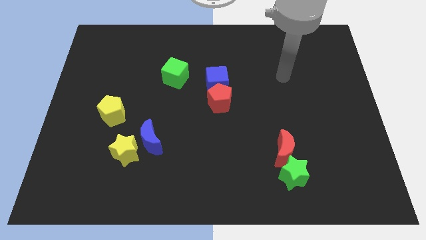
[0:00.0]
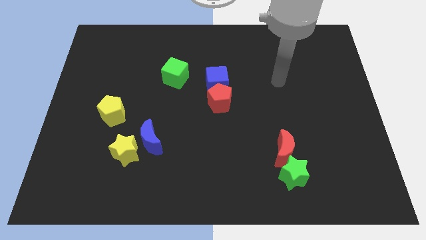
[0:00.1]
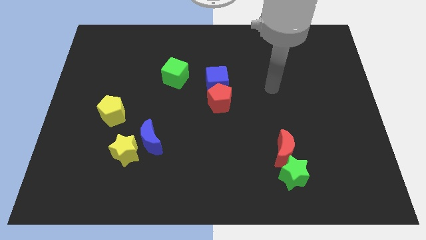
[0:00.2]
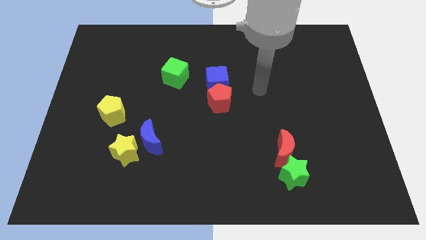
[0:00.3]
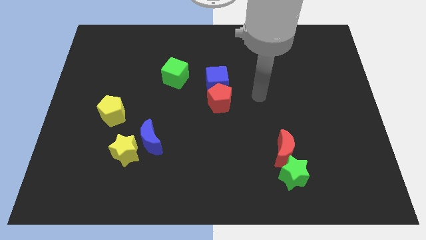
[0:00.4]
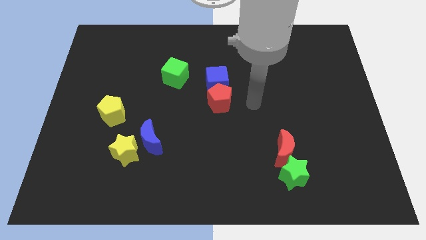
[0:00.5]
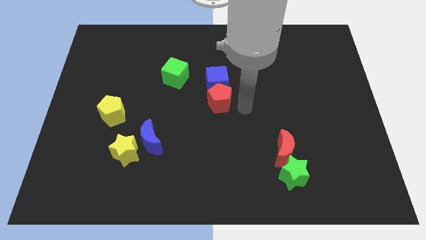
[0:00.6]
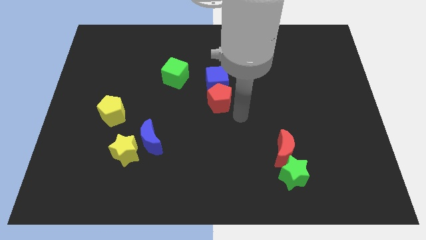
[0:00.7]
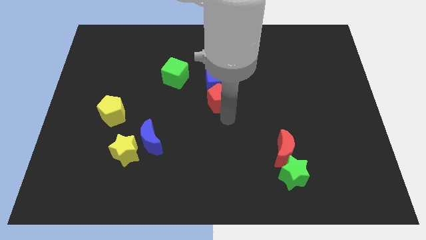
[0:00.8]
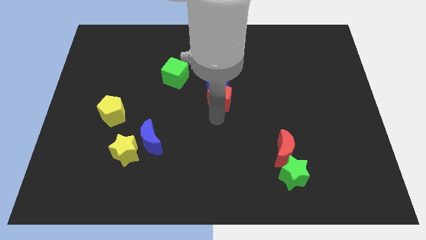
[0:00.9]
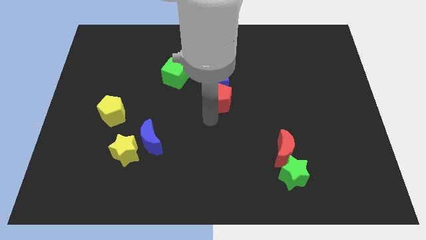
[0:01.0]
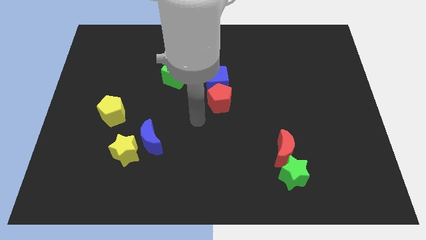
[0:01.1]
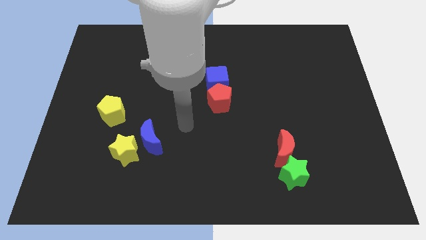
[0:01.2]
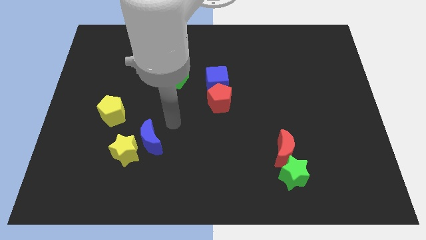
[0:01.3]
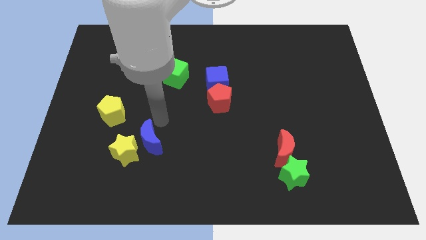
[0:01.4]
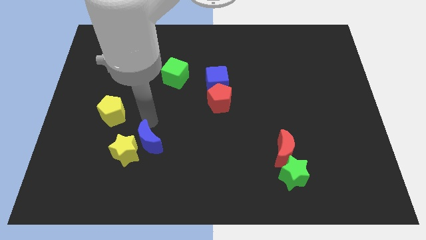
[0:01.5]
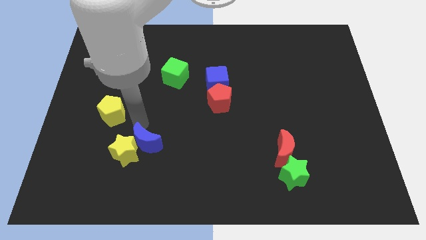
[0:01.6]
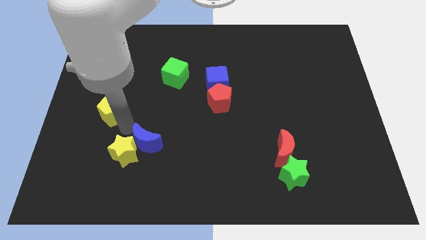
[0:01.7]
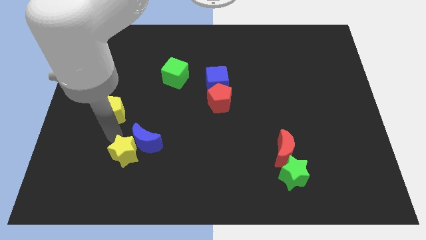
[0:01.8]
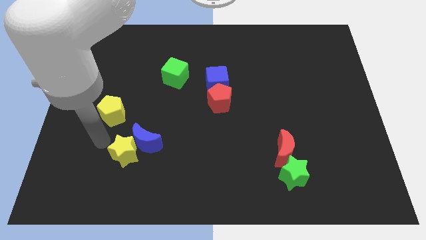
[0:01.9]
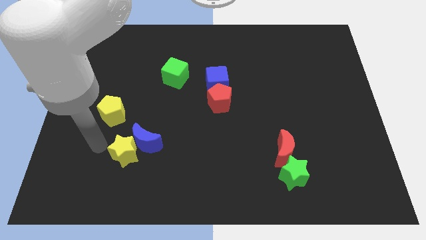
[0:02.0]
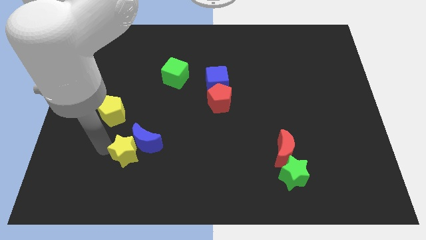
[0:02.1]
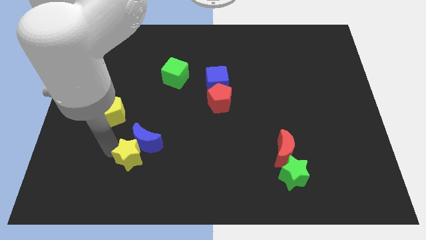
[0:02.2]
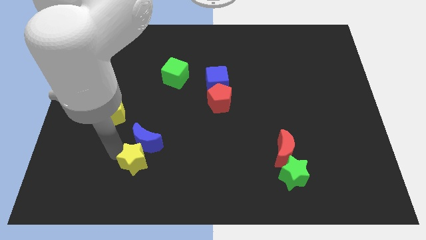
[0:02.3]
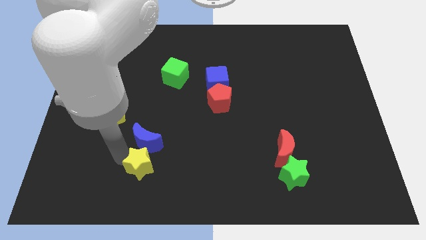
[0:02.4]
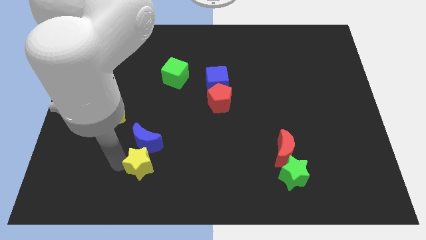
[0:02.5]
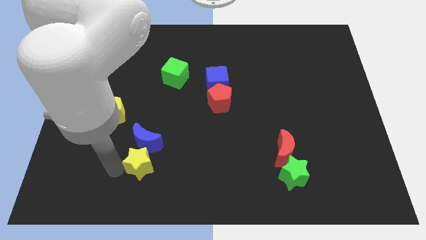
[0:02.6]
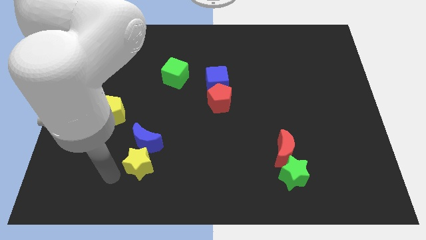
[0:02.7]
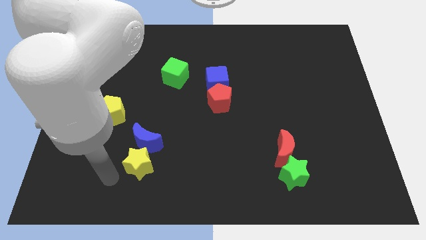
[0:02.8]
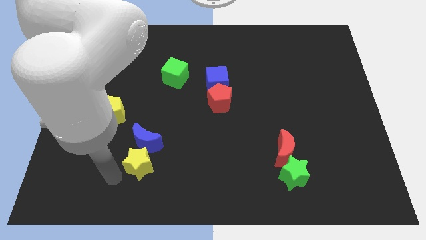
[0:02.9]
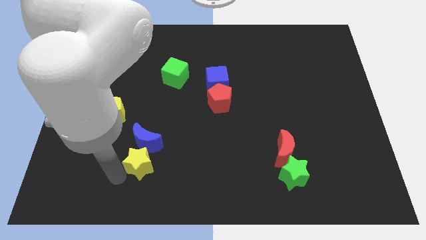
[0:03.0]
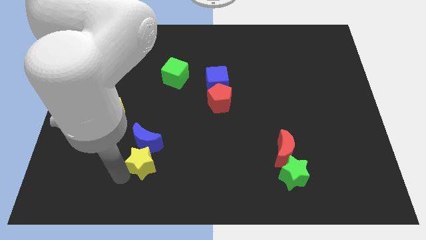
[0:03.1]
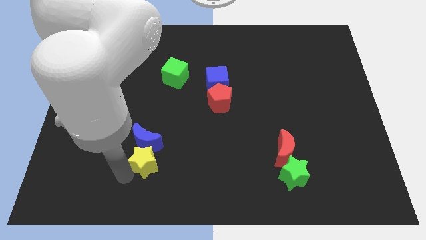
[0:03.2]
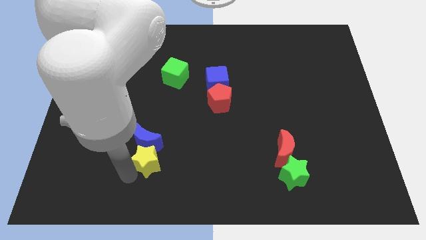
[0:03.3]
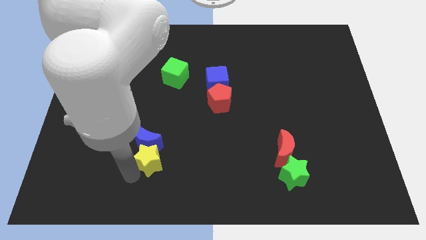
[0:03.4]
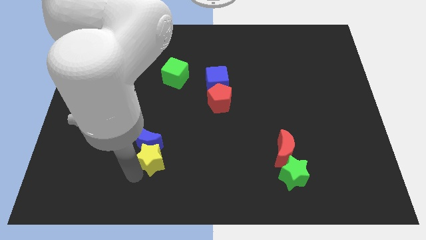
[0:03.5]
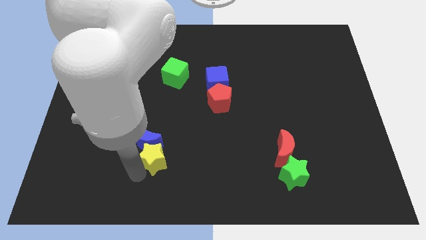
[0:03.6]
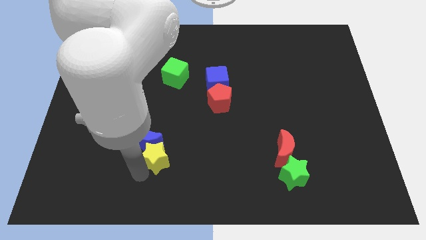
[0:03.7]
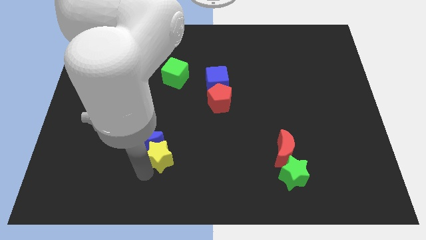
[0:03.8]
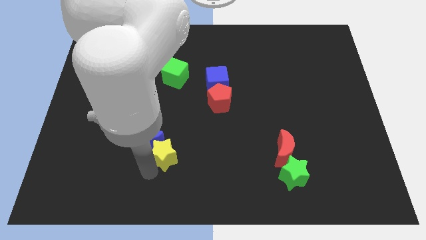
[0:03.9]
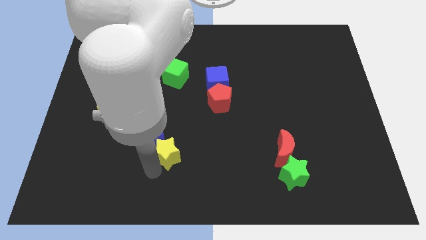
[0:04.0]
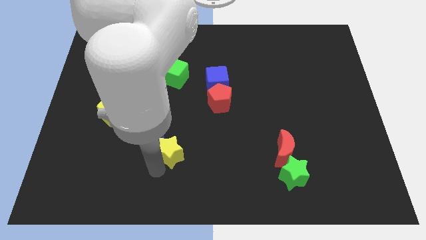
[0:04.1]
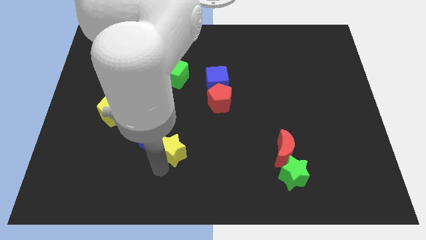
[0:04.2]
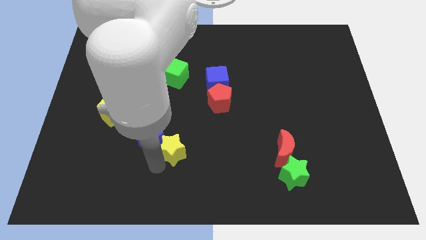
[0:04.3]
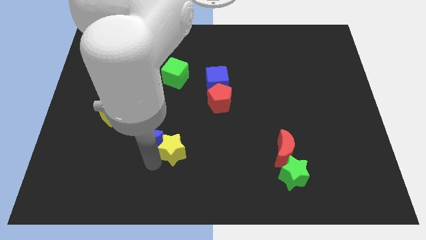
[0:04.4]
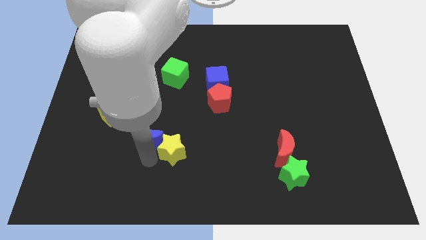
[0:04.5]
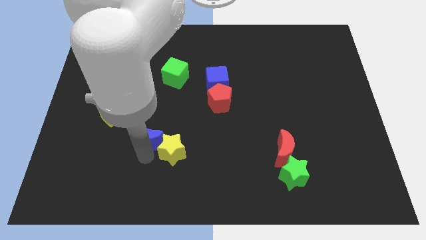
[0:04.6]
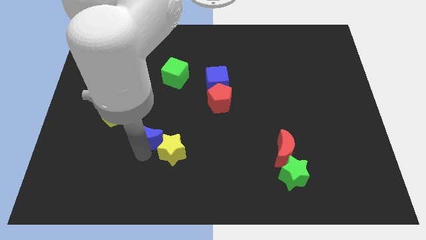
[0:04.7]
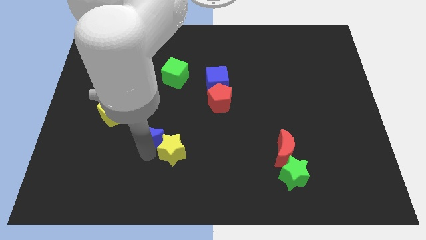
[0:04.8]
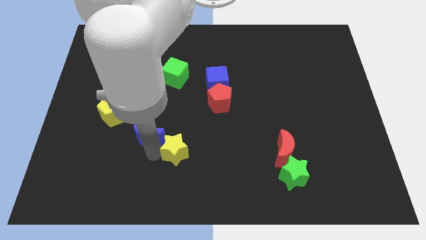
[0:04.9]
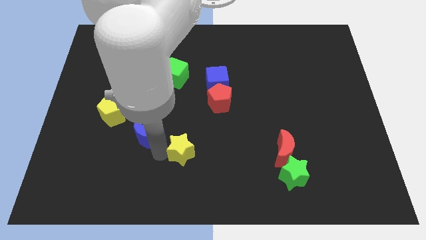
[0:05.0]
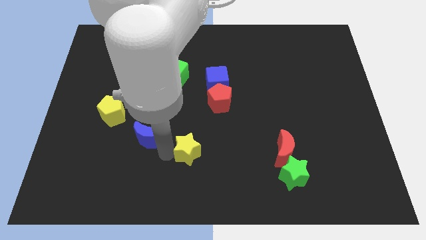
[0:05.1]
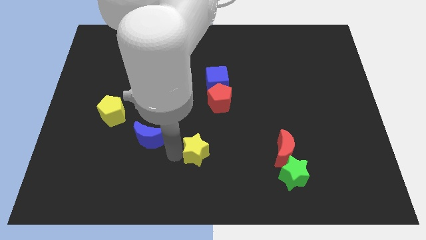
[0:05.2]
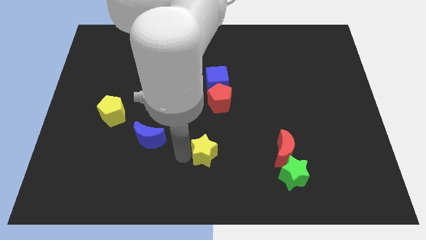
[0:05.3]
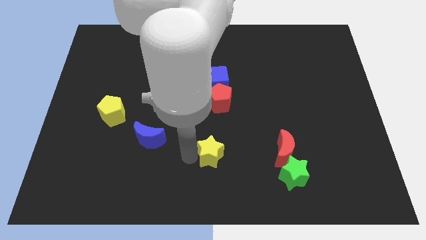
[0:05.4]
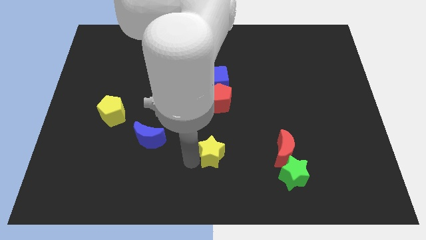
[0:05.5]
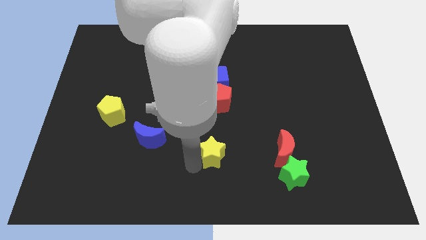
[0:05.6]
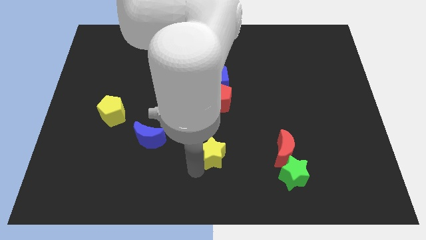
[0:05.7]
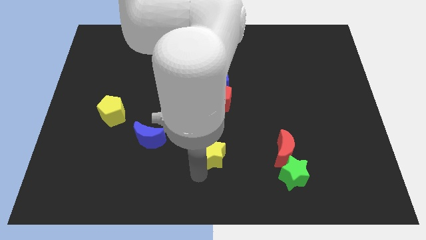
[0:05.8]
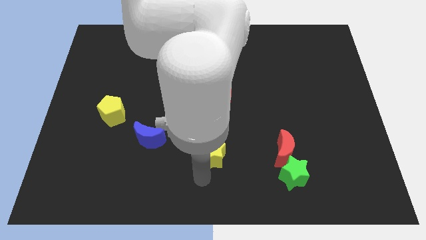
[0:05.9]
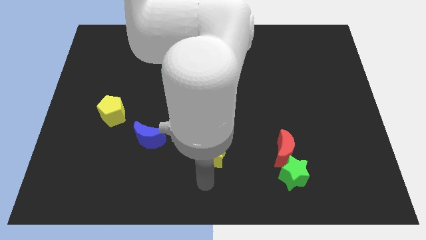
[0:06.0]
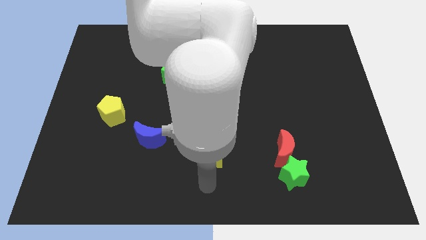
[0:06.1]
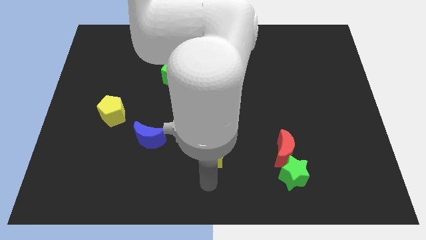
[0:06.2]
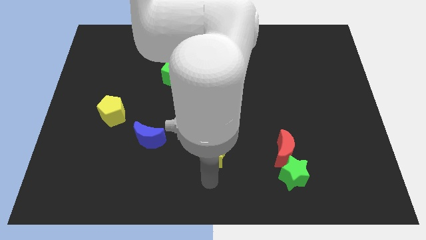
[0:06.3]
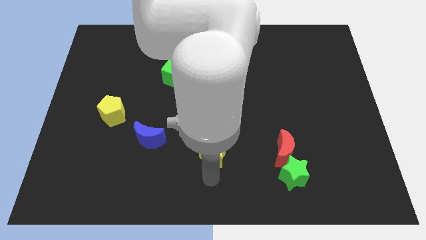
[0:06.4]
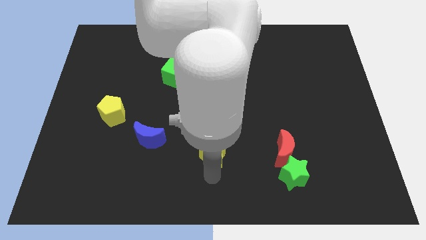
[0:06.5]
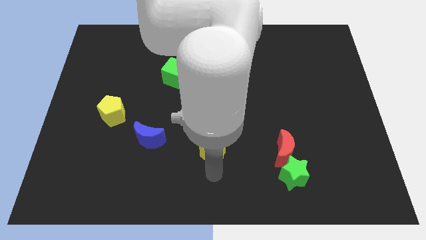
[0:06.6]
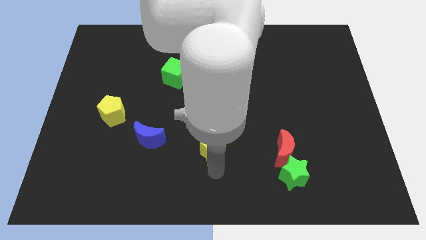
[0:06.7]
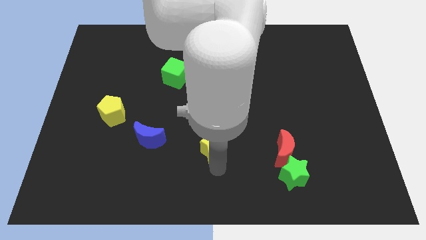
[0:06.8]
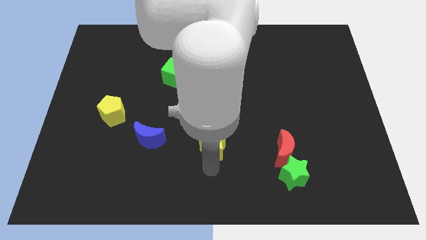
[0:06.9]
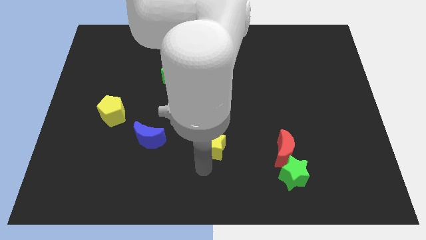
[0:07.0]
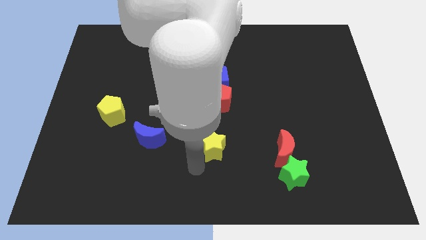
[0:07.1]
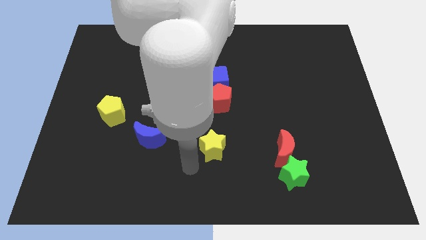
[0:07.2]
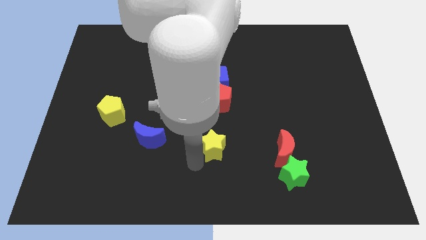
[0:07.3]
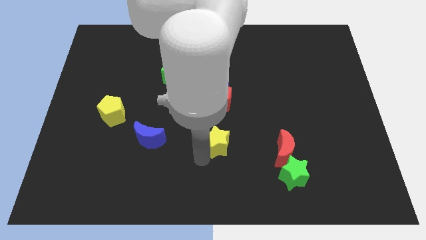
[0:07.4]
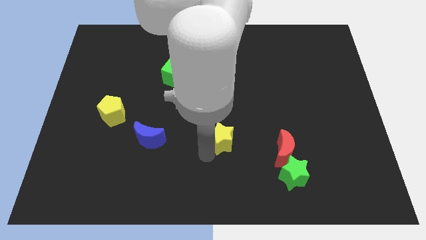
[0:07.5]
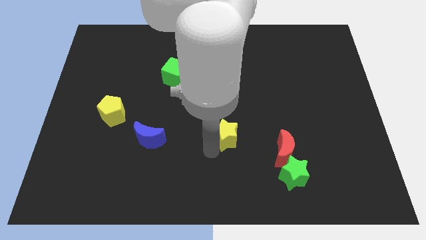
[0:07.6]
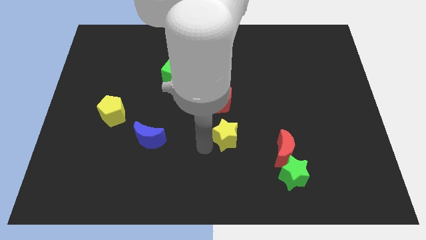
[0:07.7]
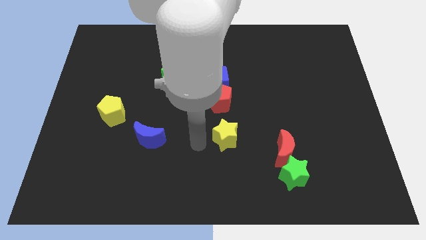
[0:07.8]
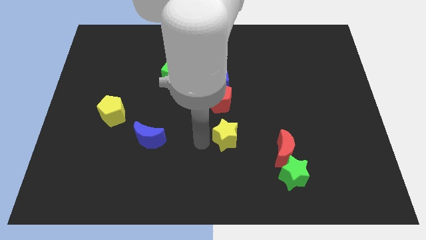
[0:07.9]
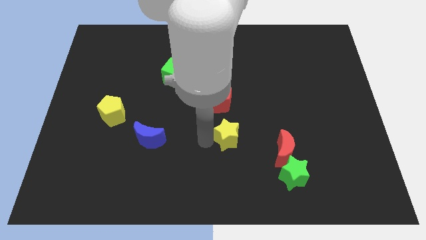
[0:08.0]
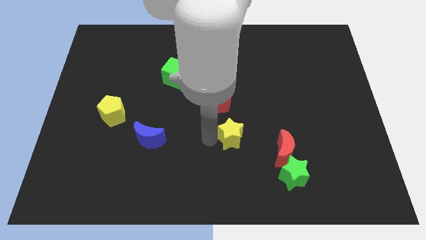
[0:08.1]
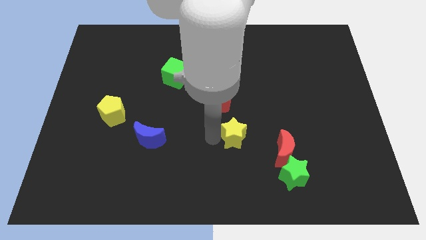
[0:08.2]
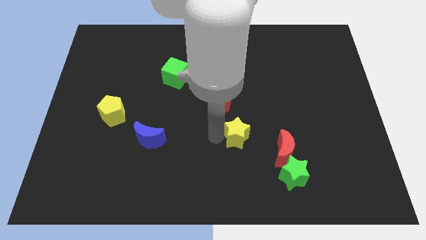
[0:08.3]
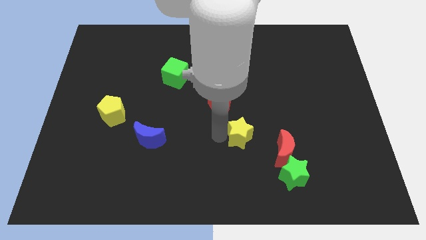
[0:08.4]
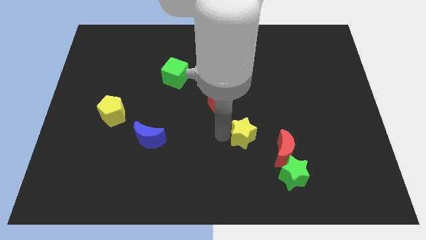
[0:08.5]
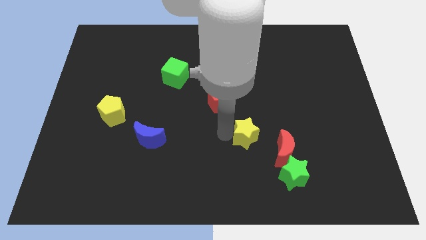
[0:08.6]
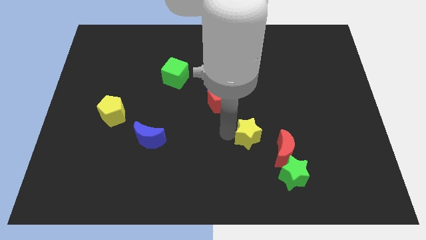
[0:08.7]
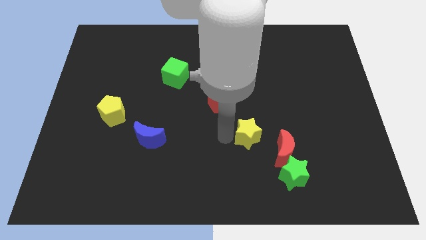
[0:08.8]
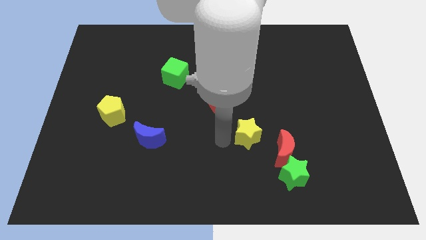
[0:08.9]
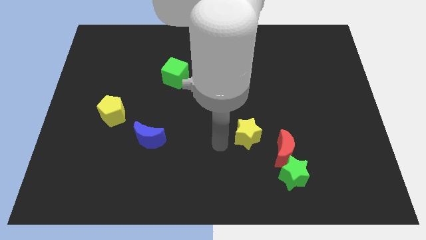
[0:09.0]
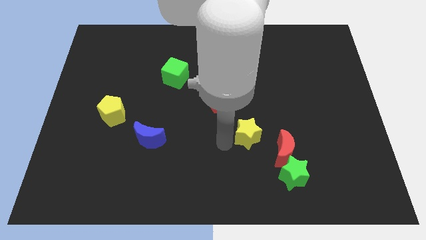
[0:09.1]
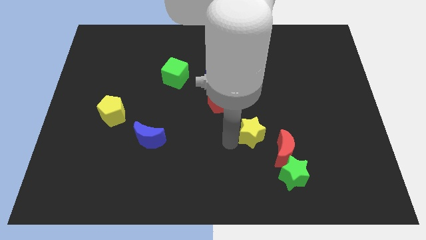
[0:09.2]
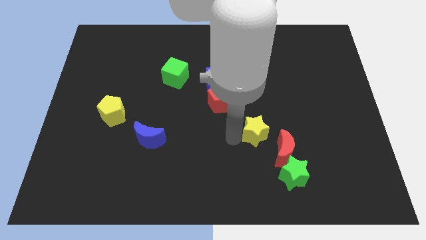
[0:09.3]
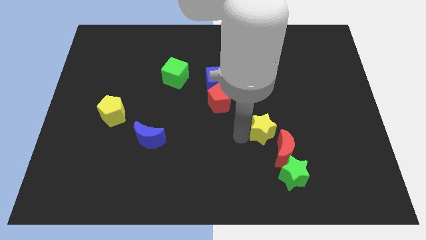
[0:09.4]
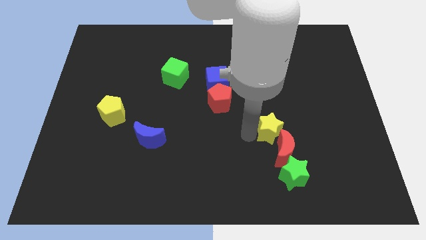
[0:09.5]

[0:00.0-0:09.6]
move the yellow star to the top of the green star
